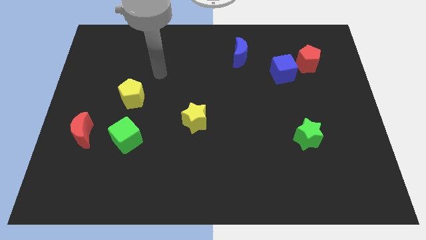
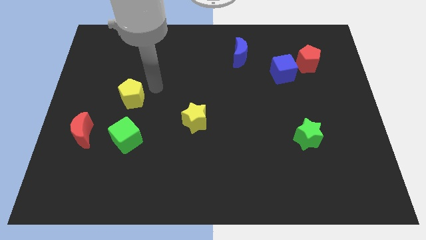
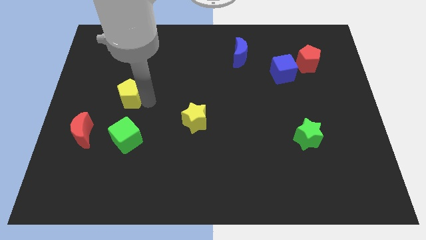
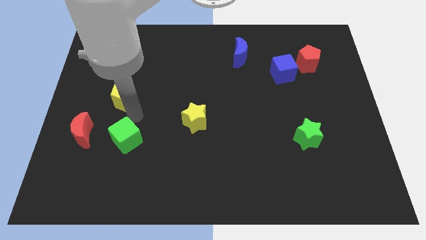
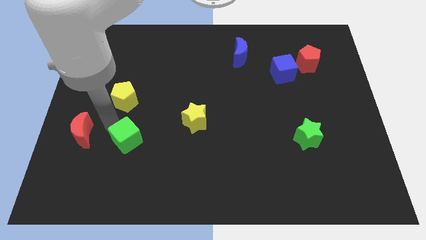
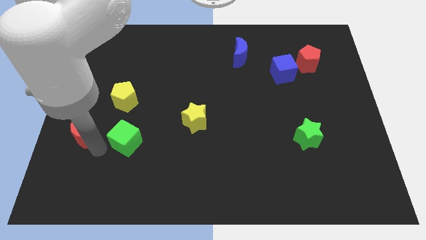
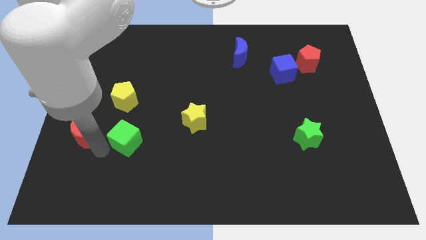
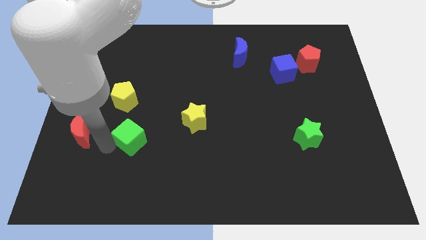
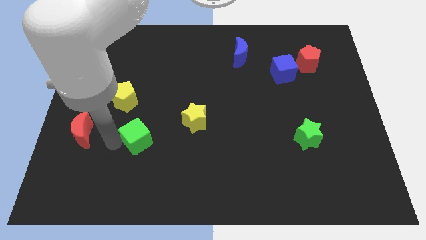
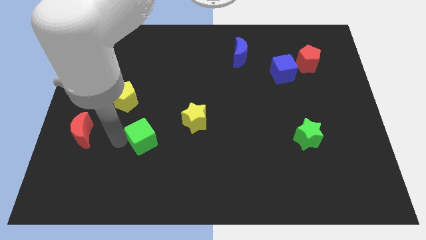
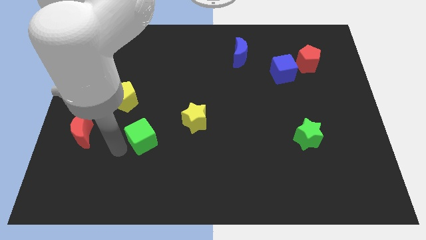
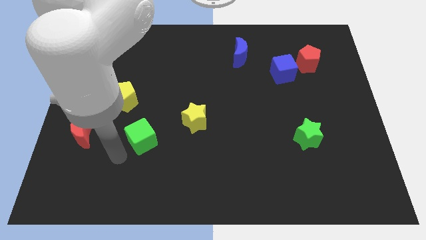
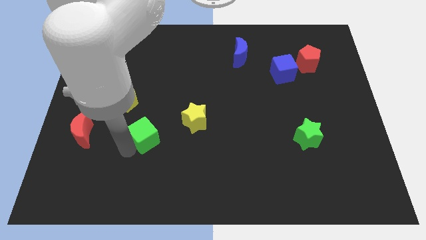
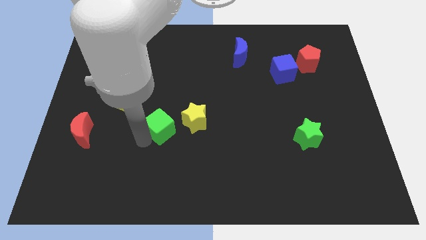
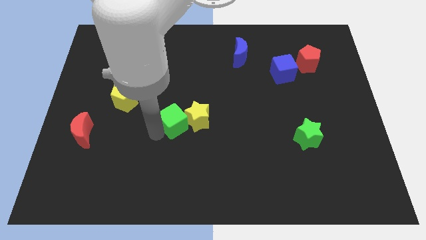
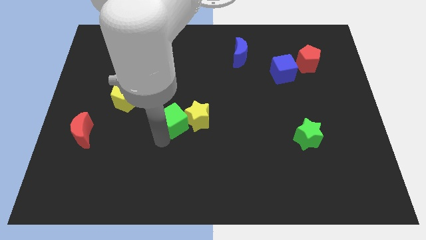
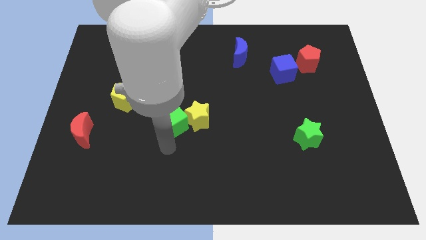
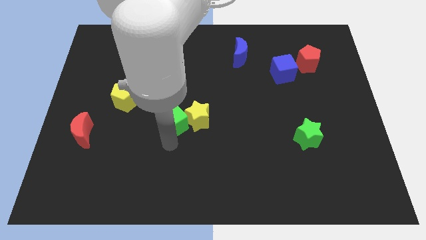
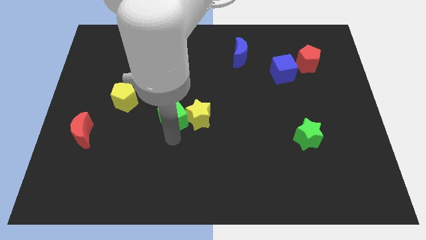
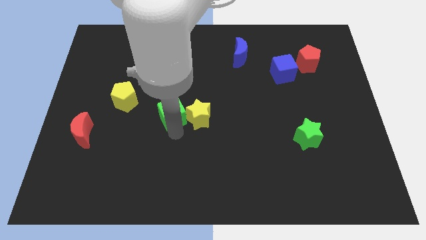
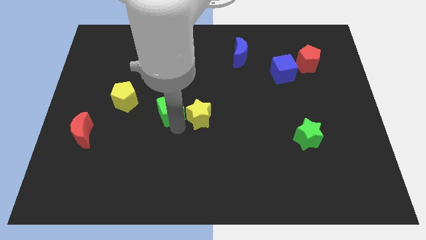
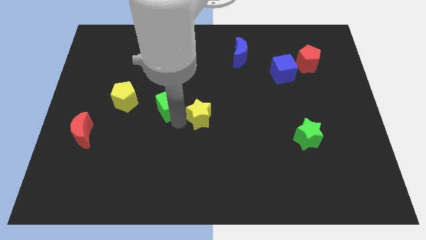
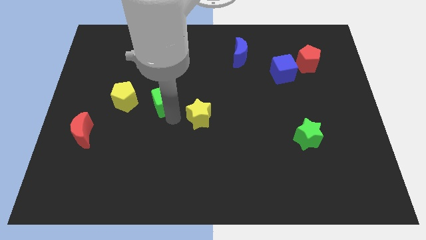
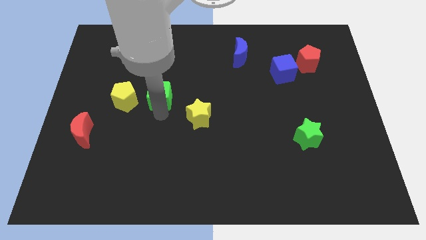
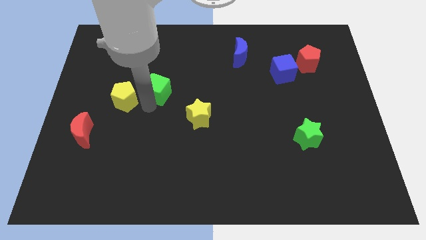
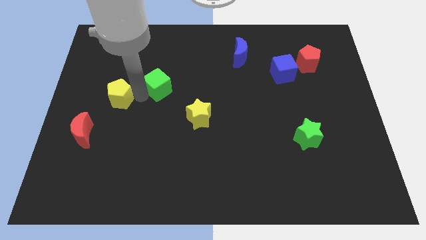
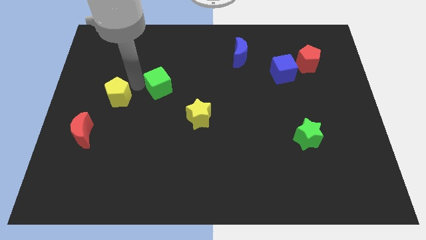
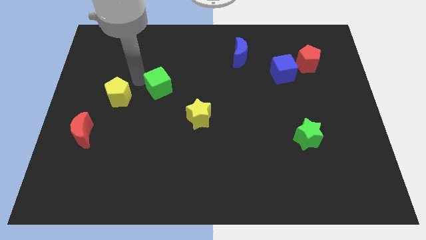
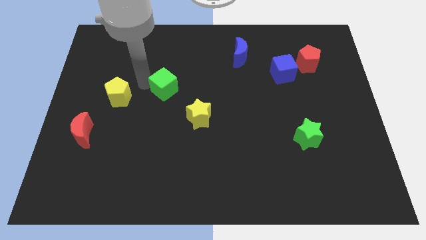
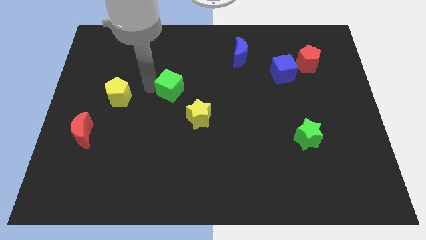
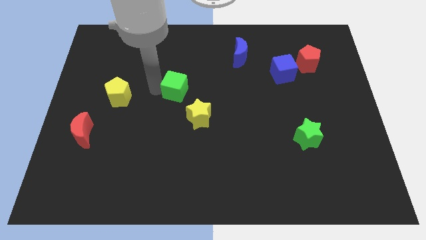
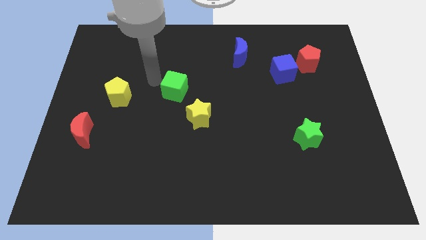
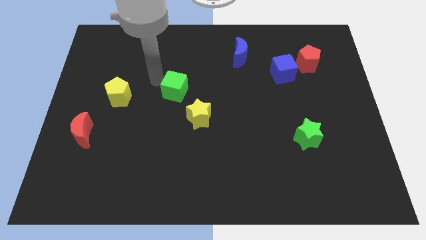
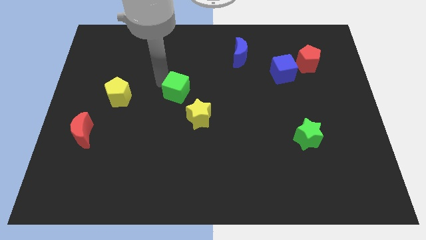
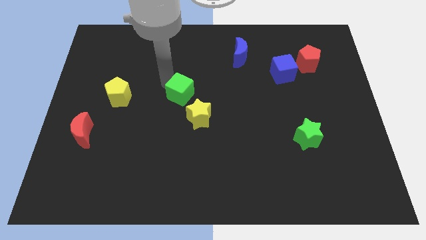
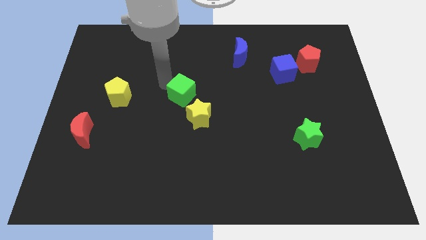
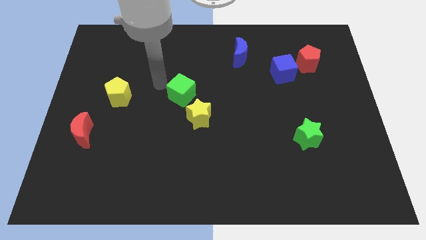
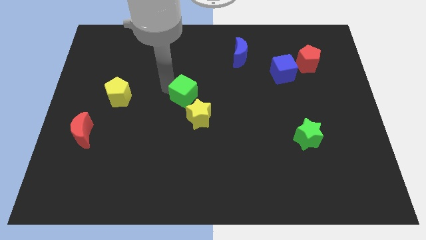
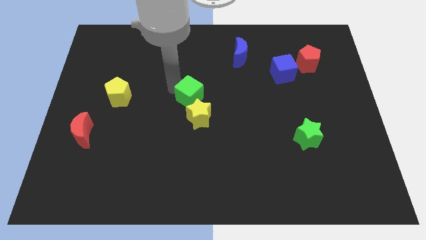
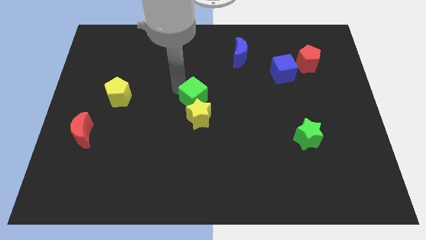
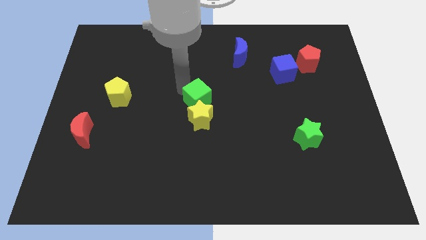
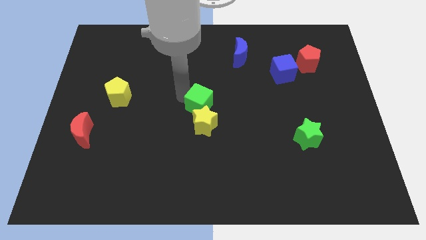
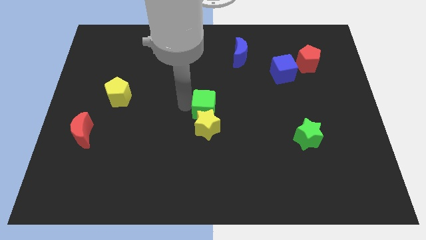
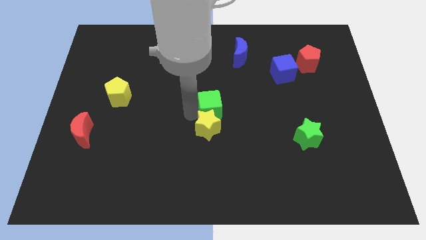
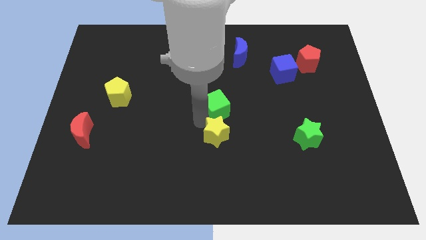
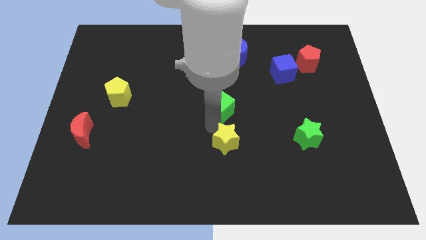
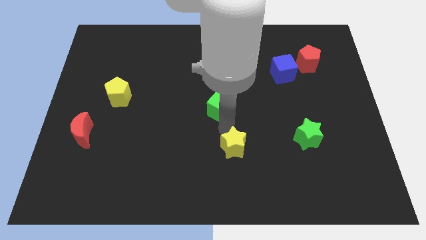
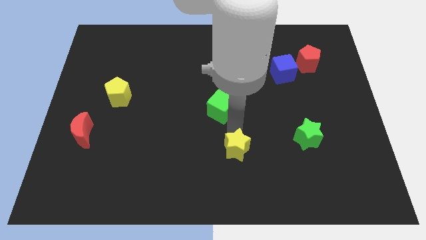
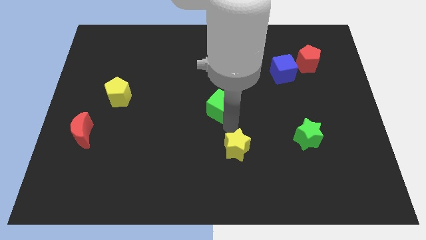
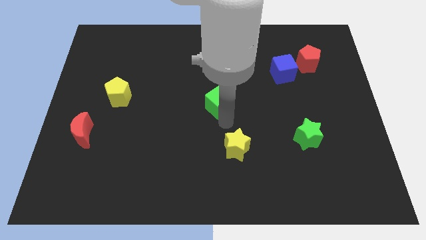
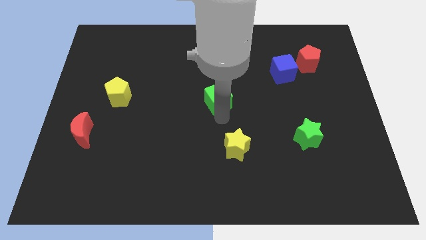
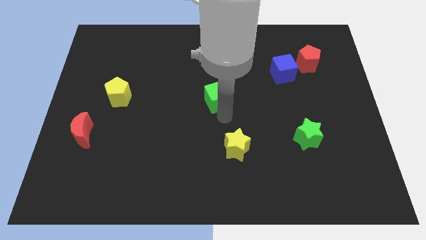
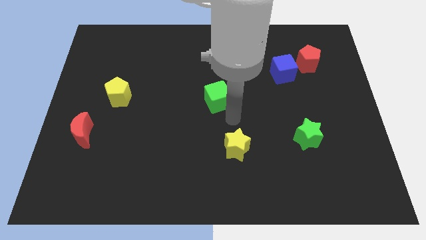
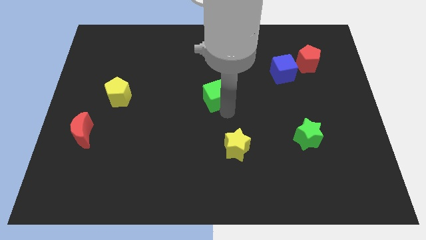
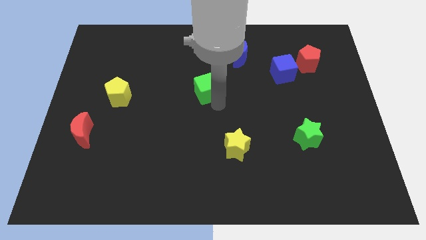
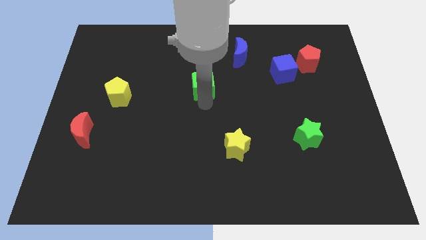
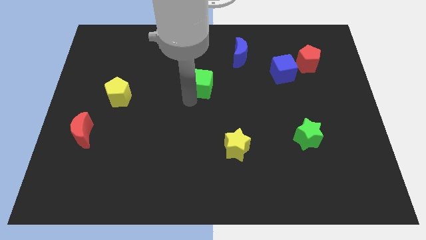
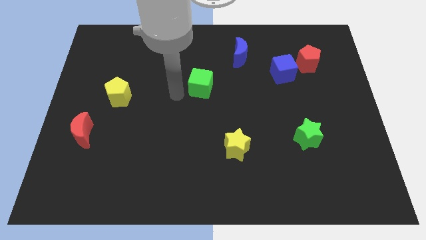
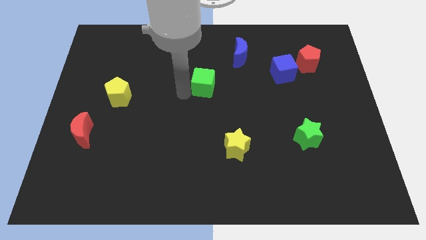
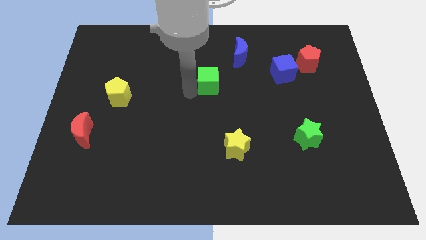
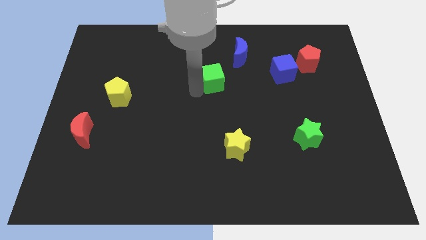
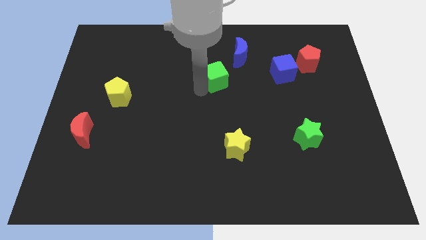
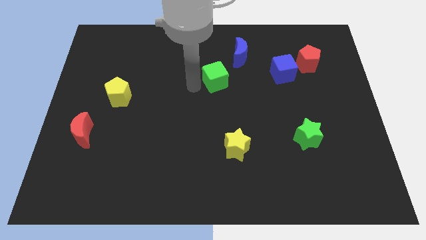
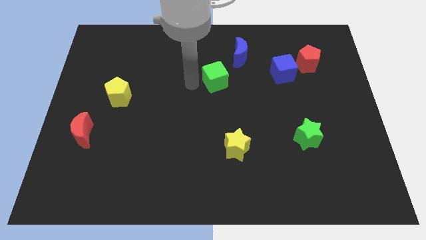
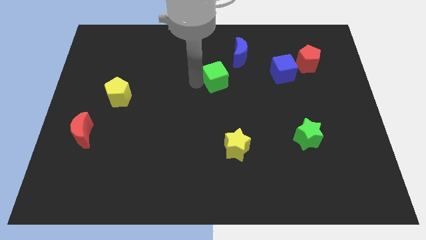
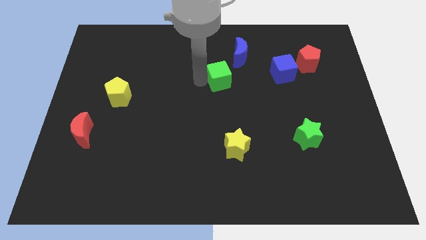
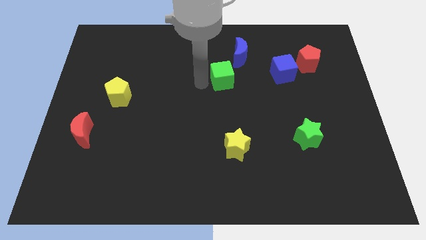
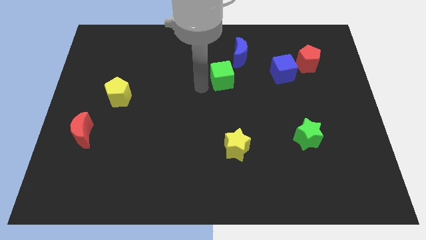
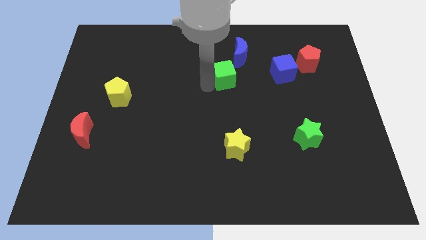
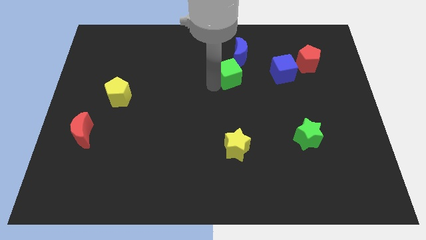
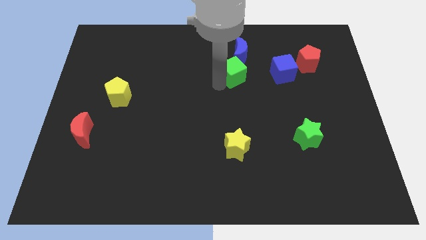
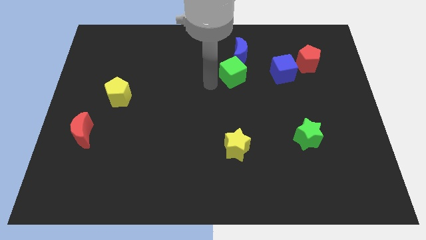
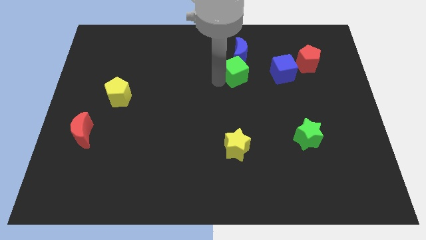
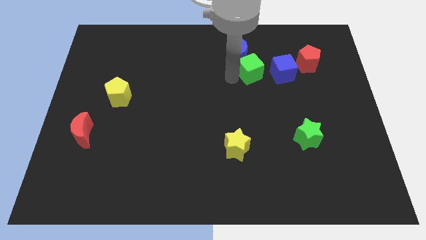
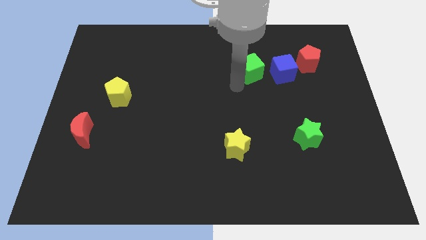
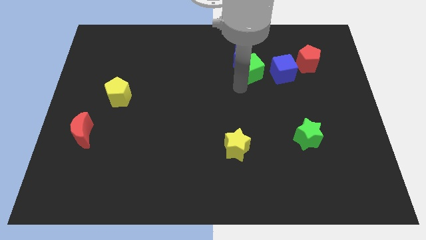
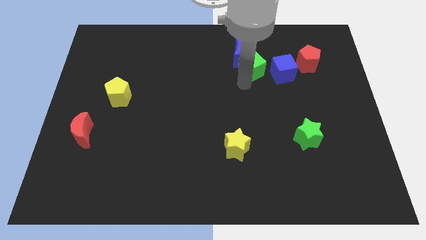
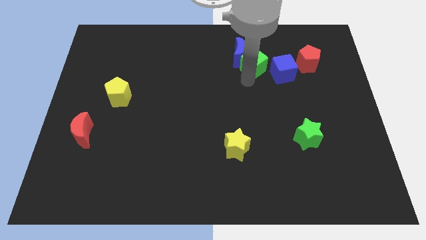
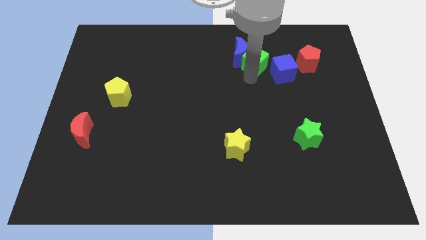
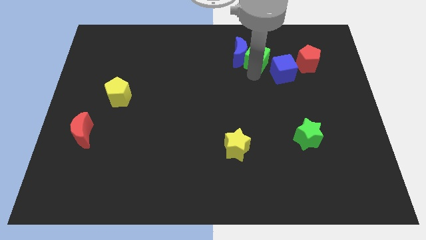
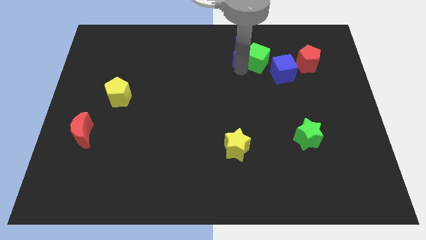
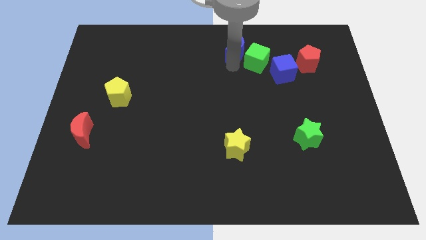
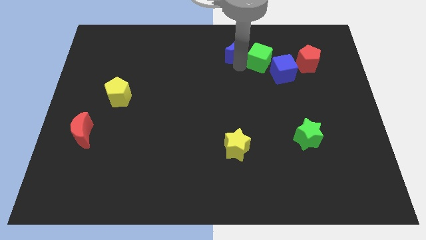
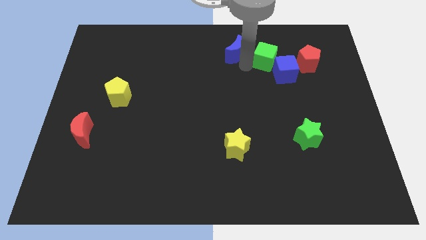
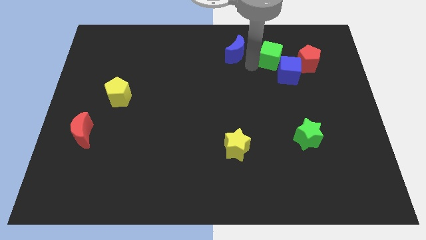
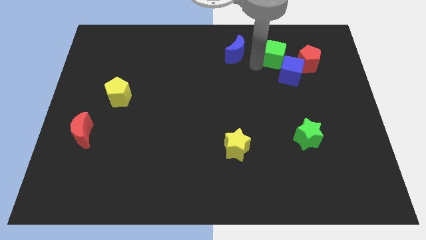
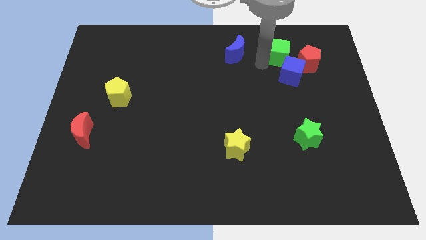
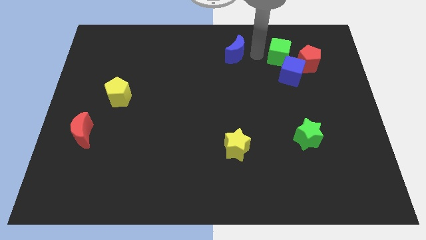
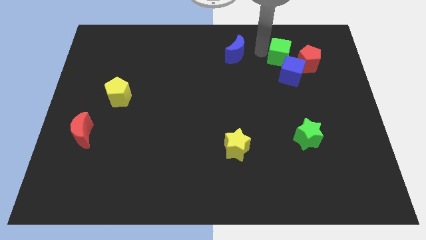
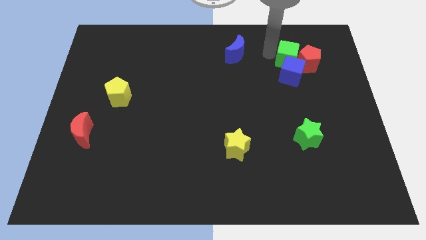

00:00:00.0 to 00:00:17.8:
move the green cube next to the red pentagon
